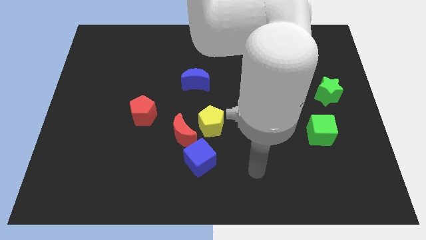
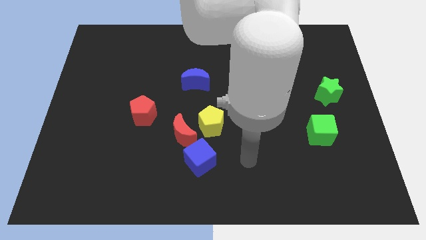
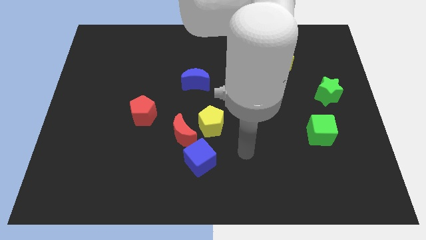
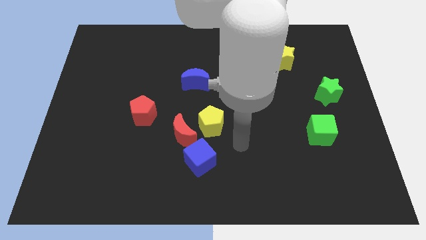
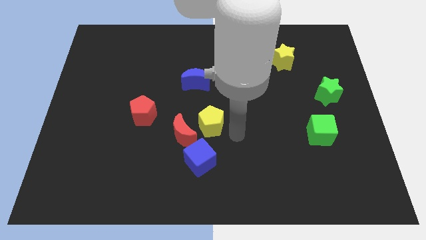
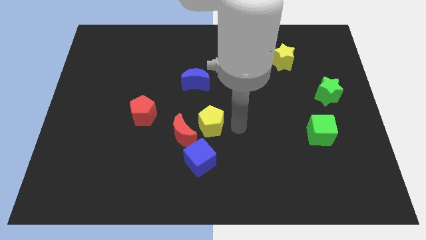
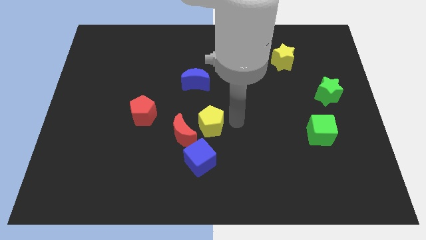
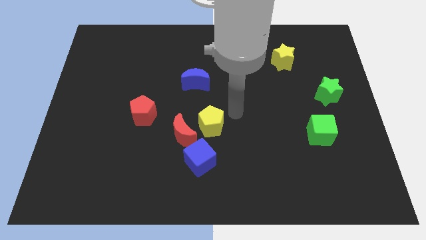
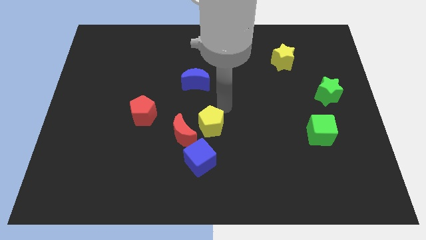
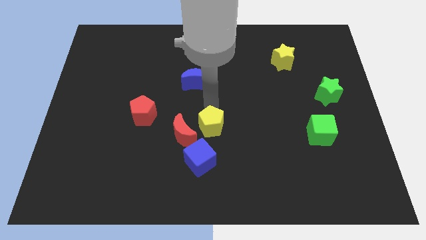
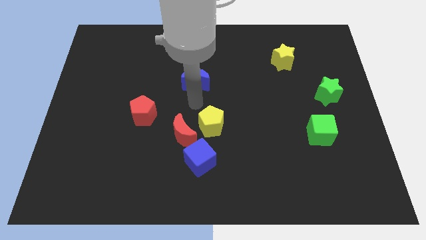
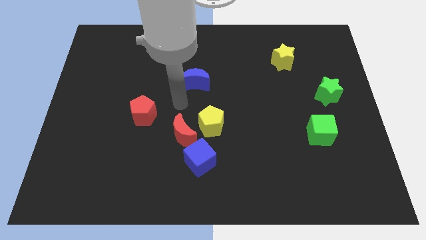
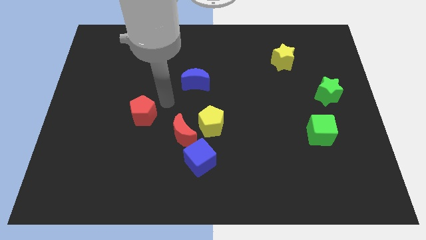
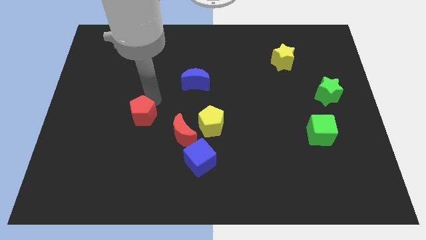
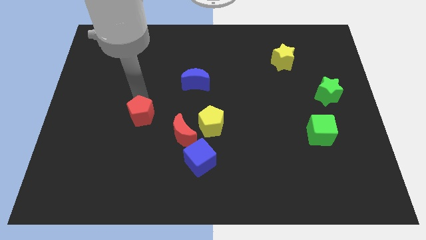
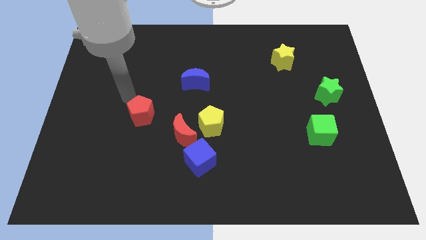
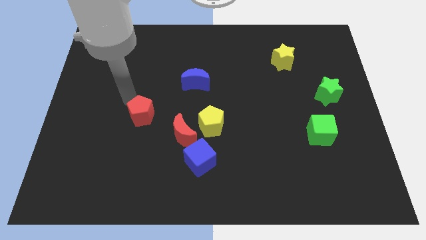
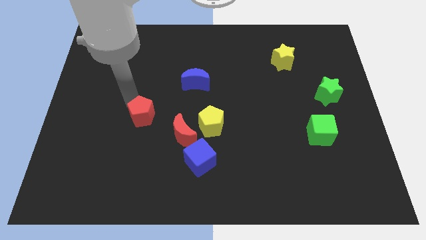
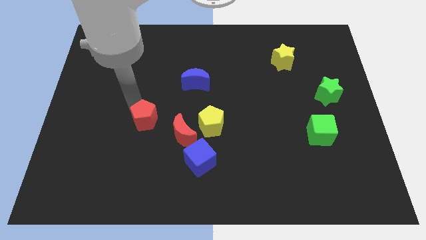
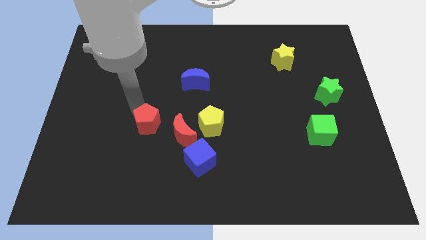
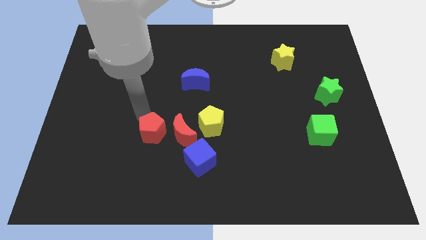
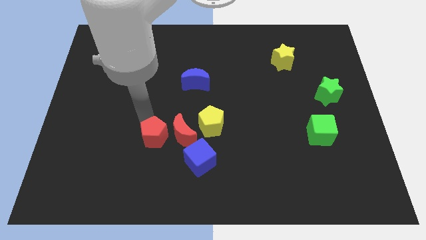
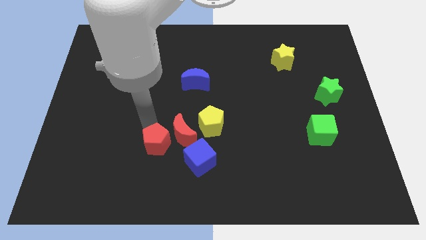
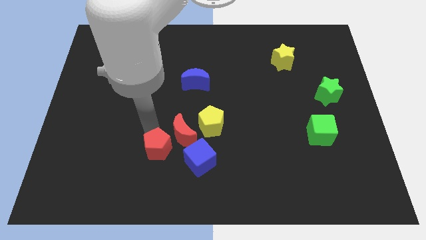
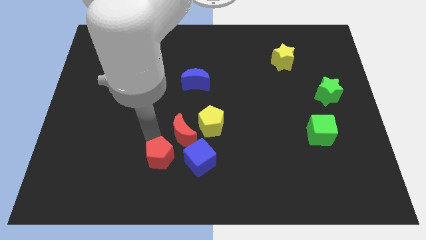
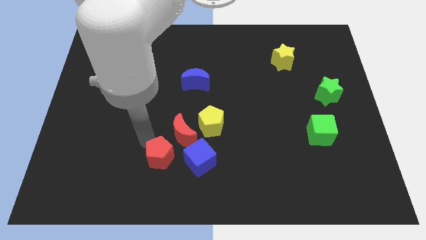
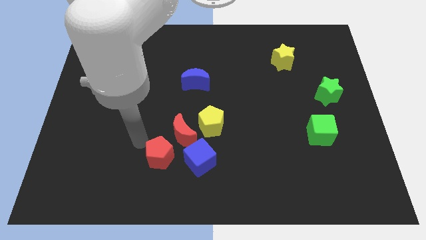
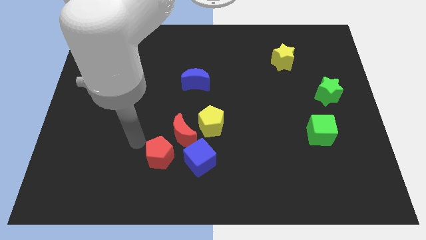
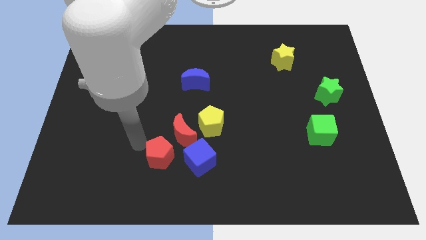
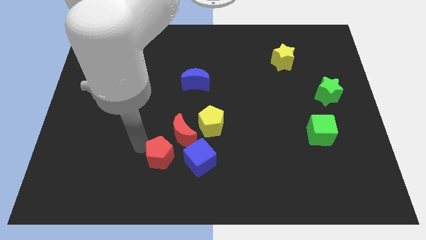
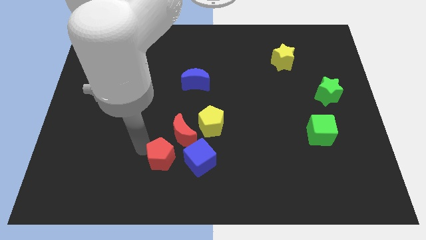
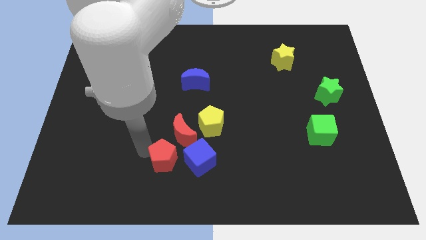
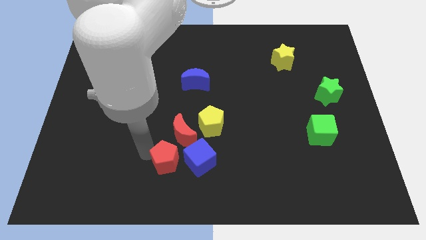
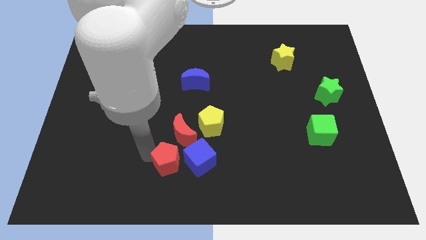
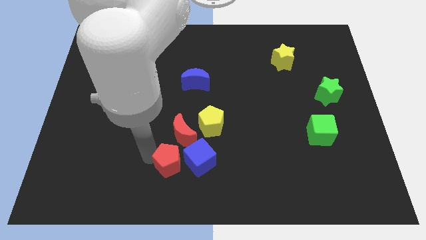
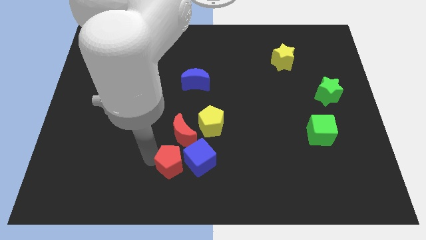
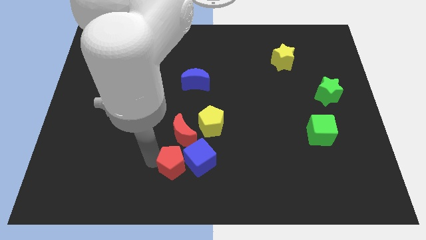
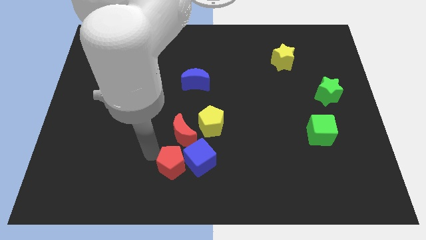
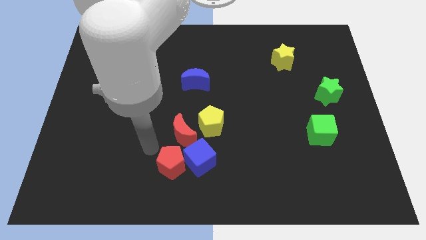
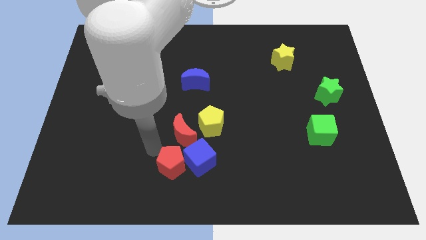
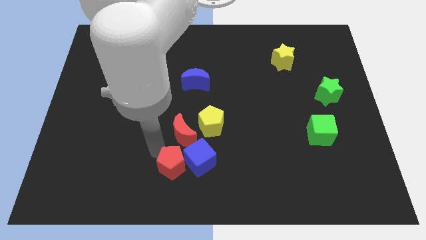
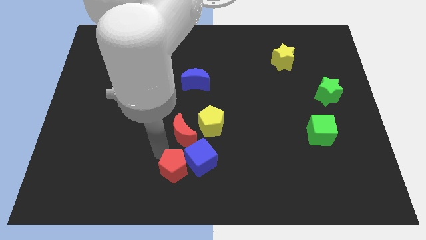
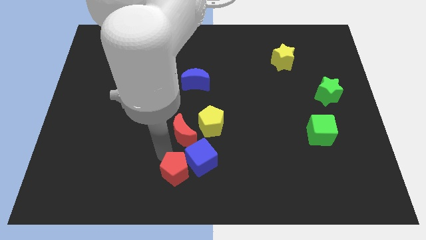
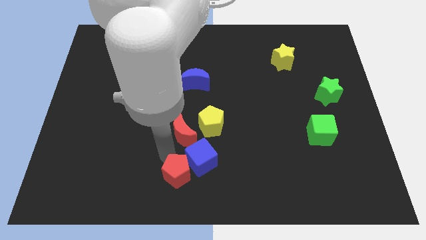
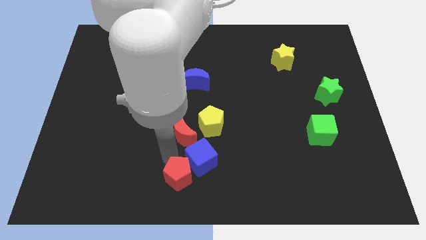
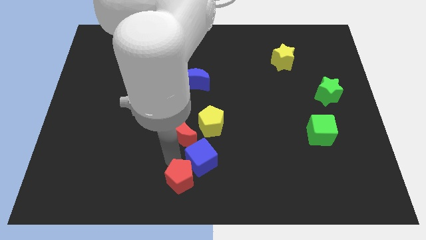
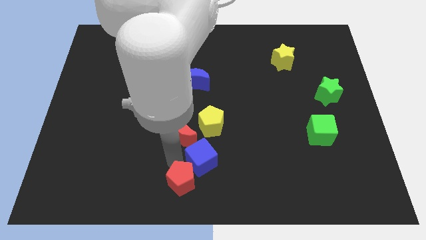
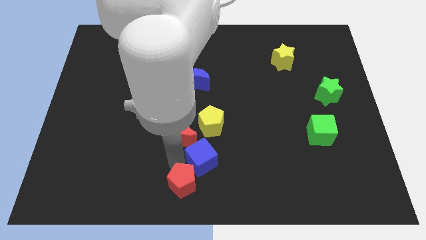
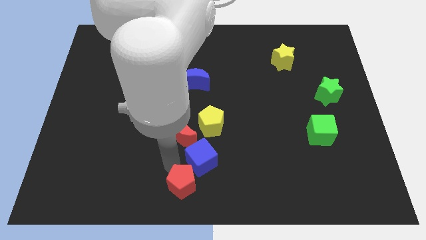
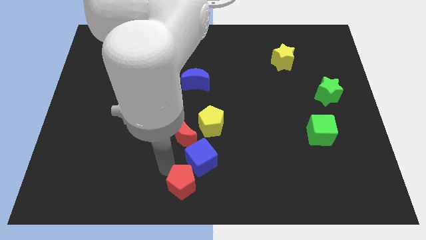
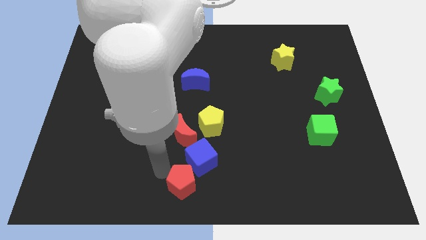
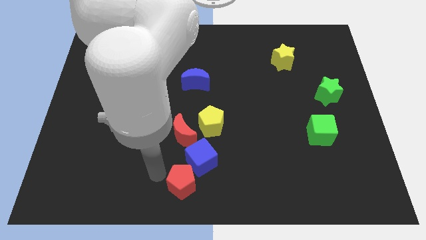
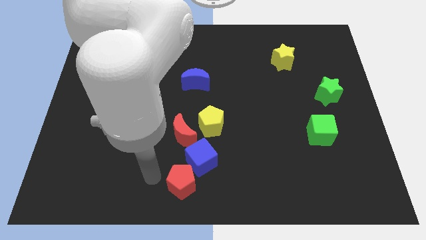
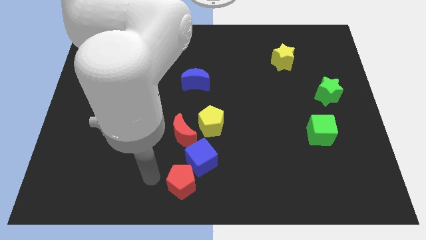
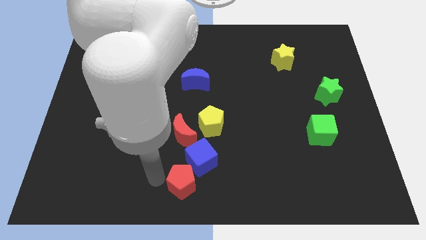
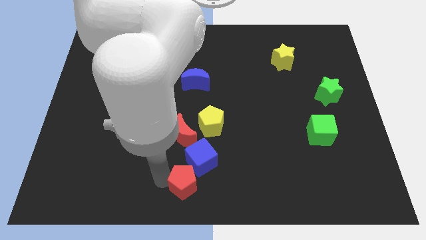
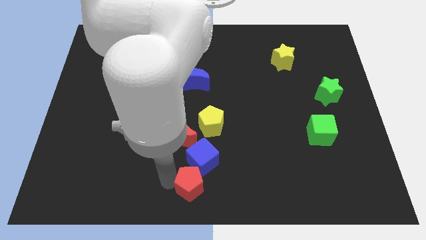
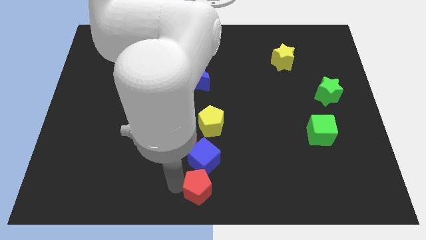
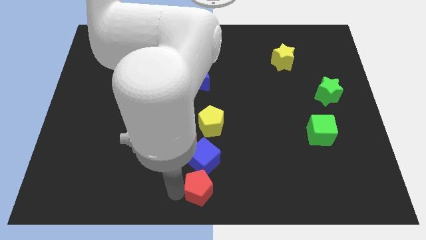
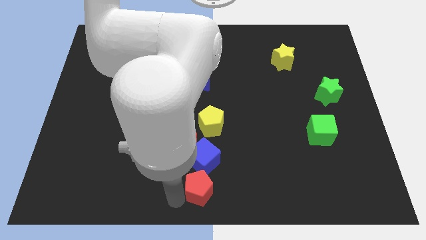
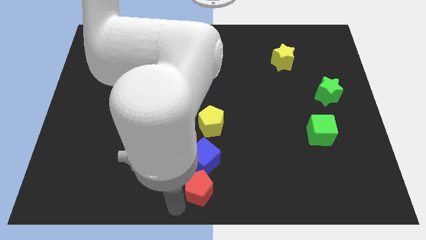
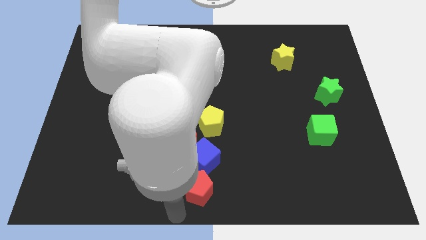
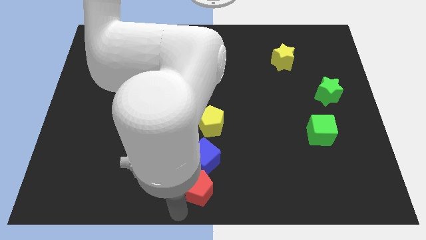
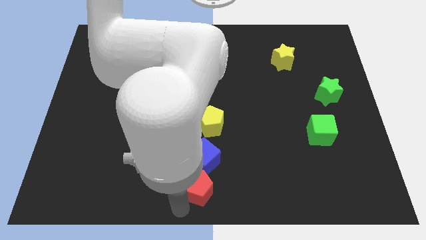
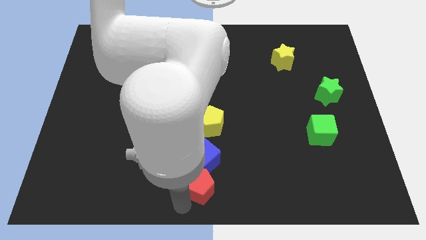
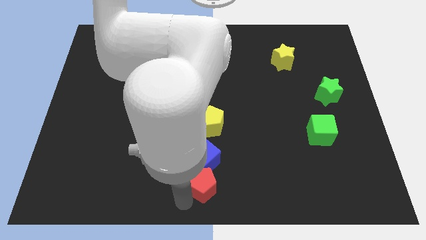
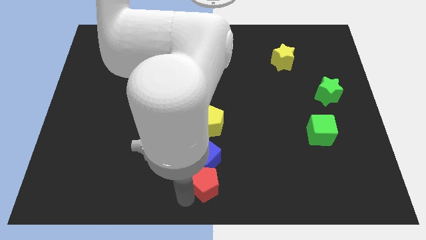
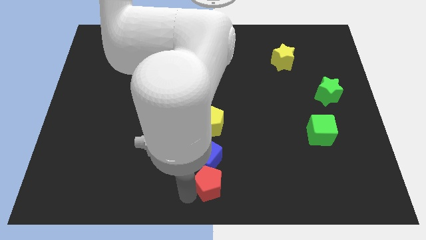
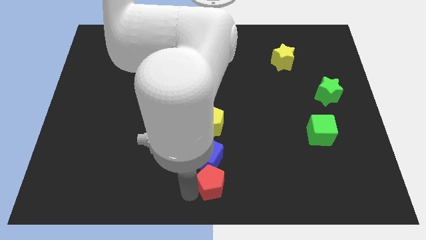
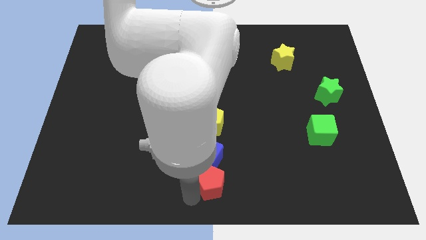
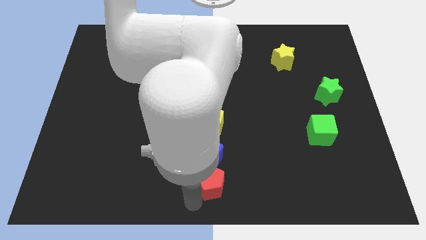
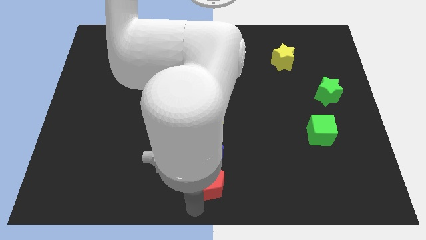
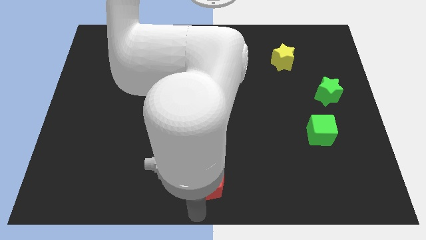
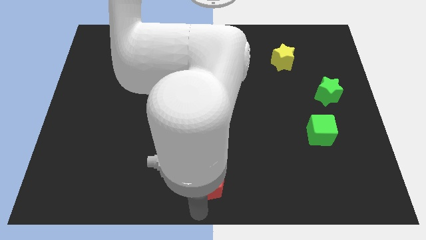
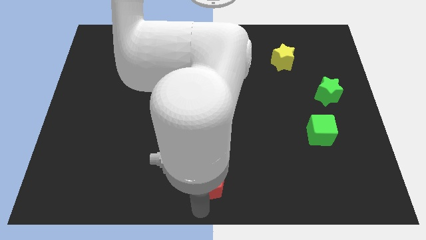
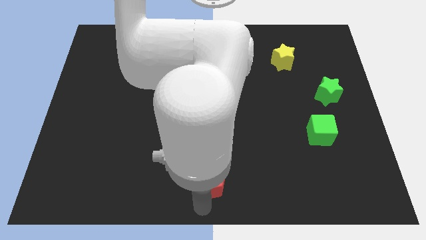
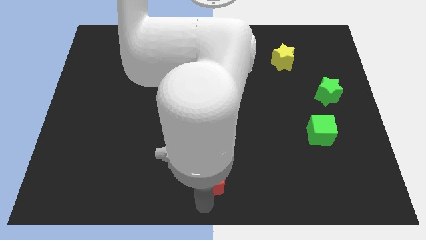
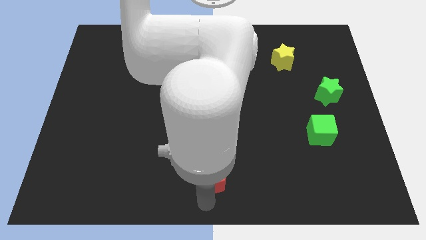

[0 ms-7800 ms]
put the red pentagon to the bottom right side of the red moon
